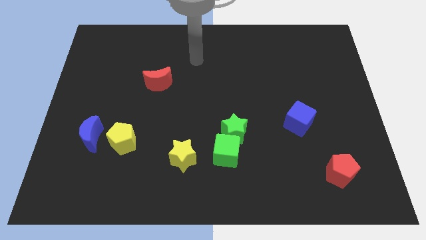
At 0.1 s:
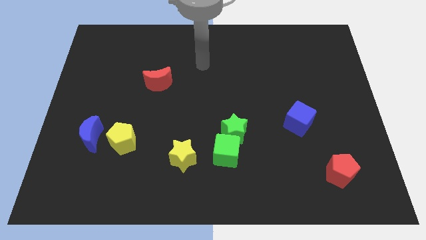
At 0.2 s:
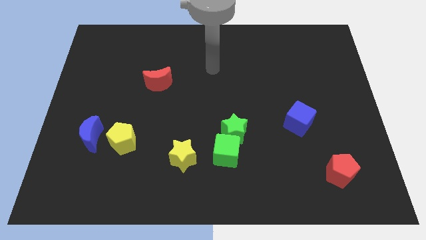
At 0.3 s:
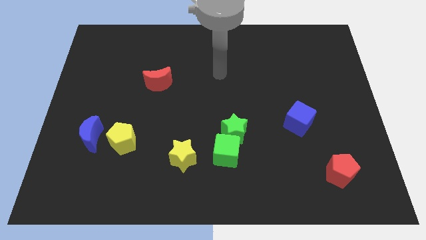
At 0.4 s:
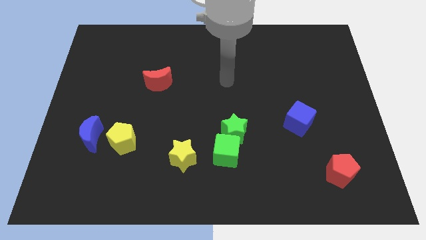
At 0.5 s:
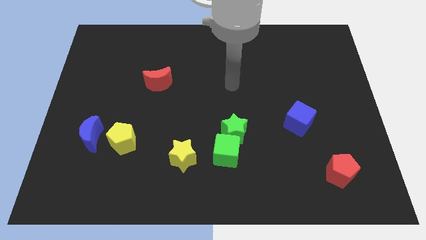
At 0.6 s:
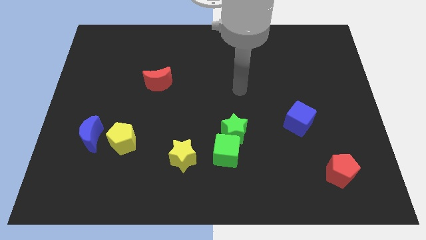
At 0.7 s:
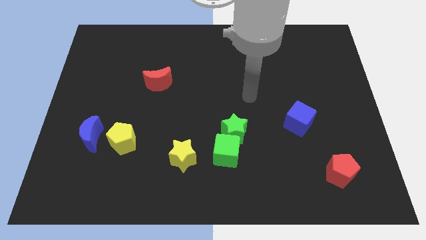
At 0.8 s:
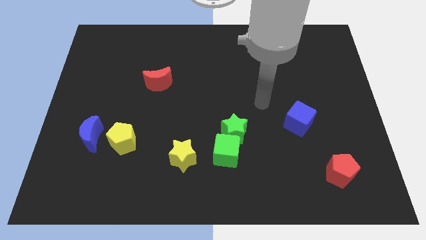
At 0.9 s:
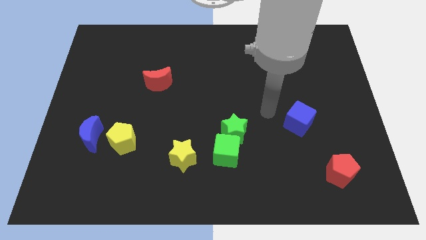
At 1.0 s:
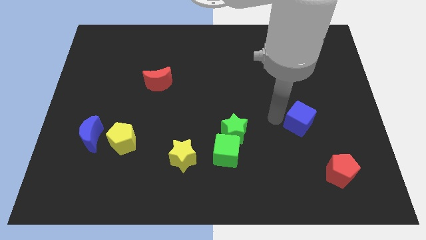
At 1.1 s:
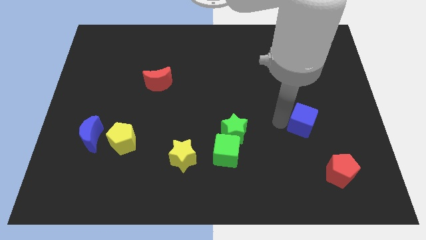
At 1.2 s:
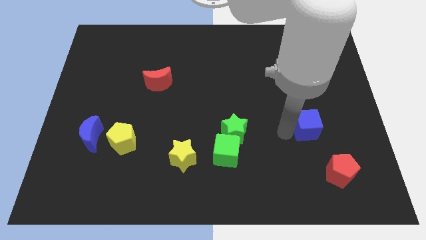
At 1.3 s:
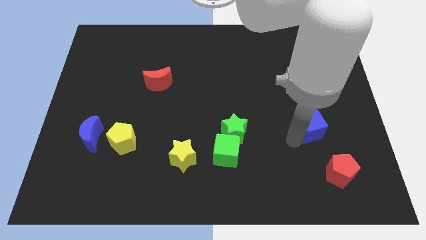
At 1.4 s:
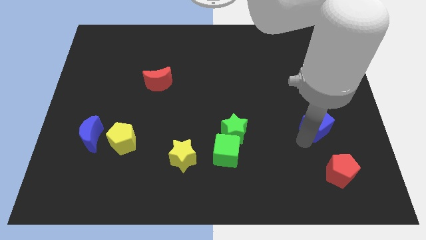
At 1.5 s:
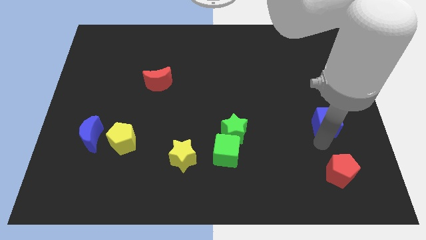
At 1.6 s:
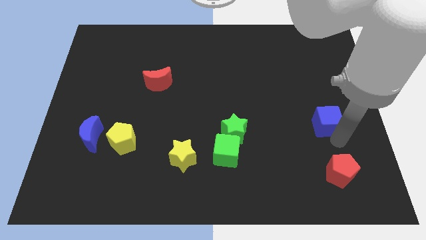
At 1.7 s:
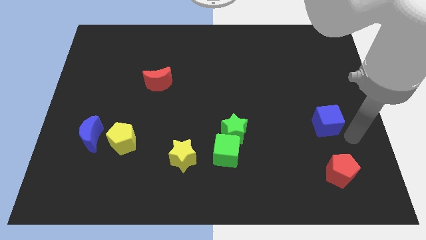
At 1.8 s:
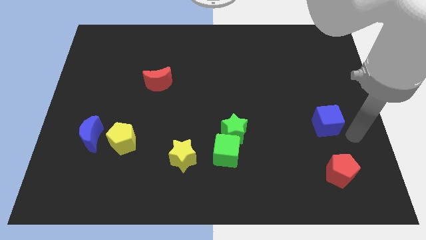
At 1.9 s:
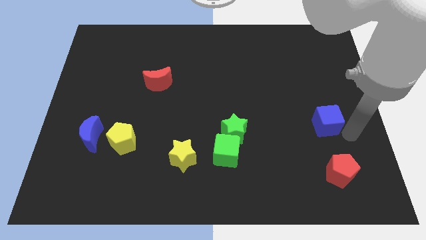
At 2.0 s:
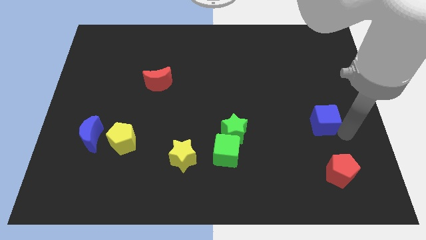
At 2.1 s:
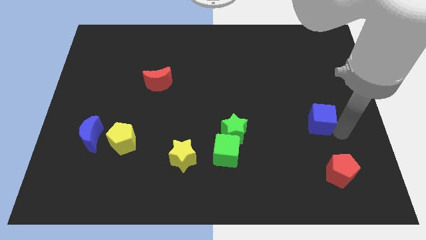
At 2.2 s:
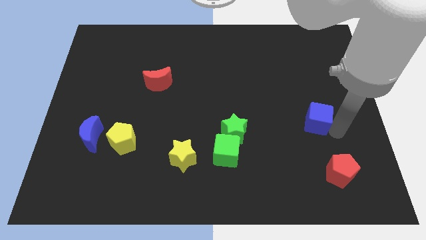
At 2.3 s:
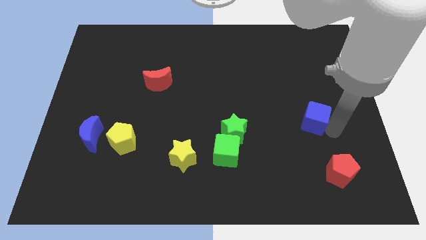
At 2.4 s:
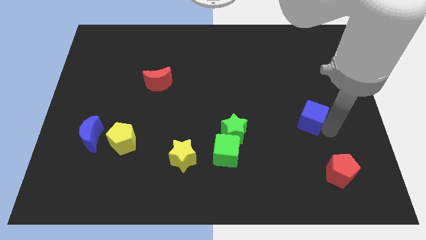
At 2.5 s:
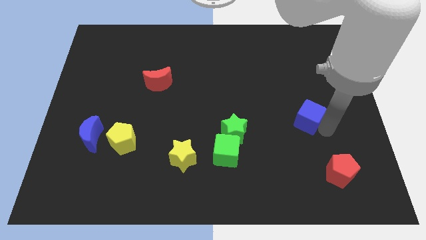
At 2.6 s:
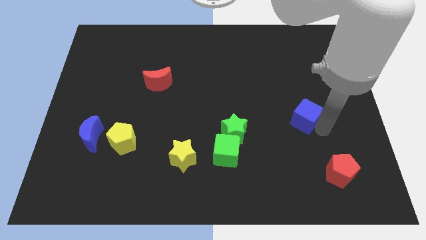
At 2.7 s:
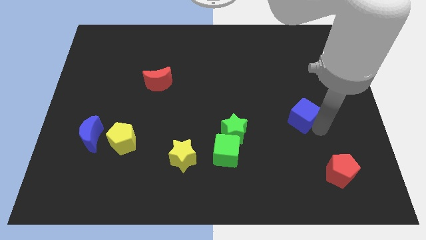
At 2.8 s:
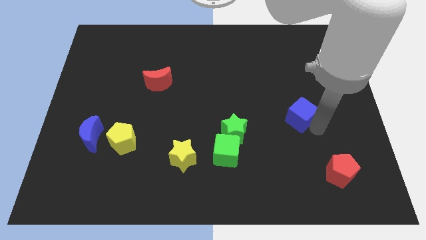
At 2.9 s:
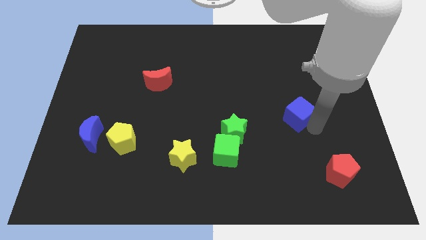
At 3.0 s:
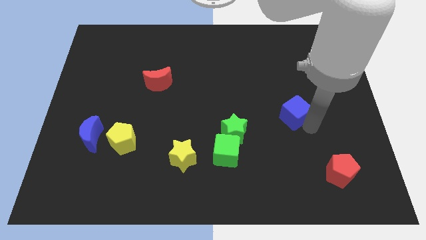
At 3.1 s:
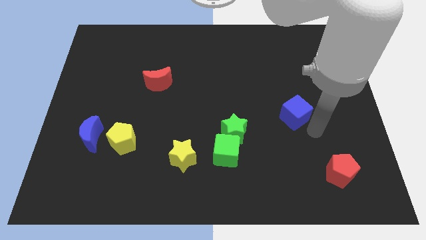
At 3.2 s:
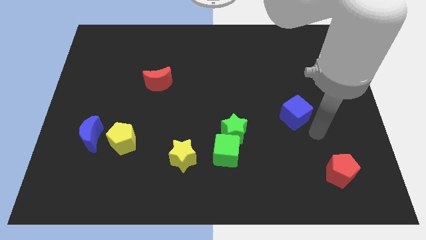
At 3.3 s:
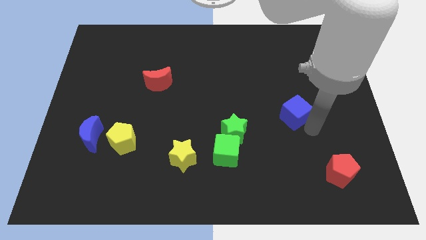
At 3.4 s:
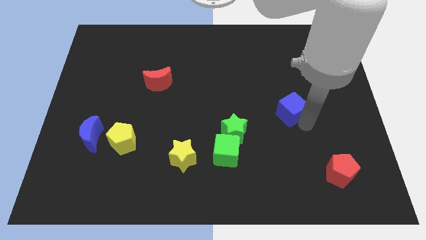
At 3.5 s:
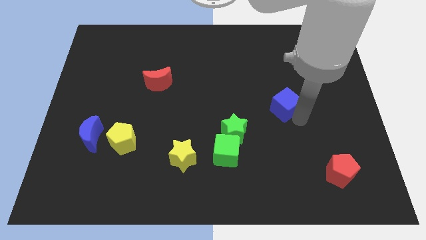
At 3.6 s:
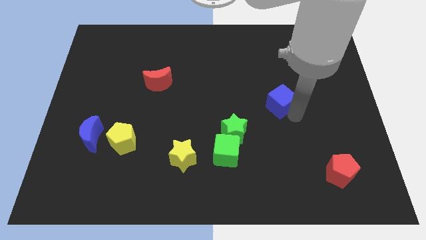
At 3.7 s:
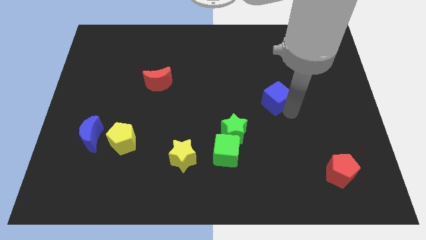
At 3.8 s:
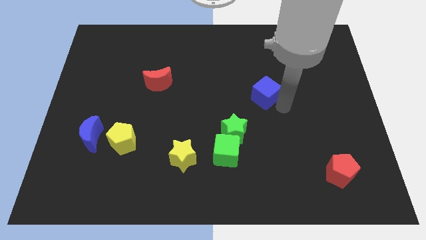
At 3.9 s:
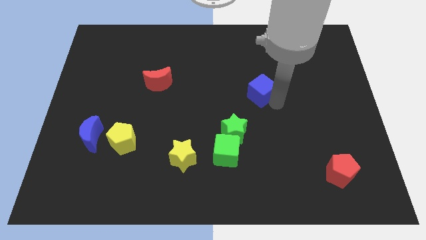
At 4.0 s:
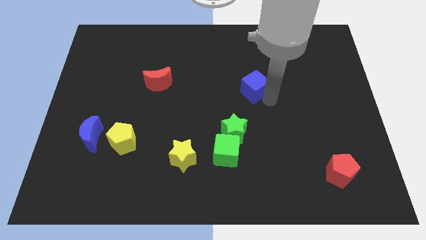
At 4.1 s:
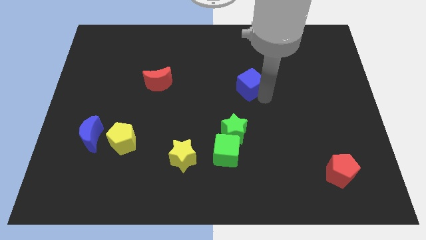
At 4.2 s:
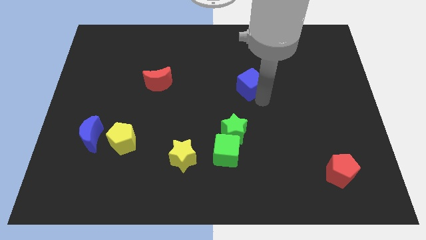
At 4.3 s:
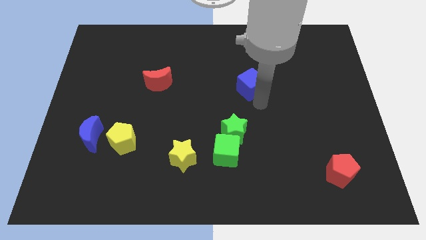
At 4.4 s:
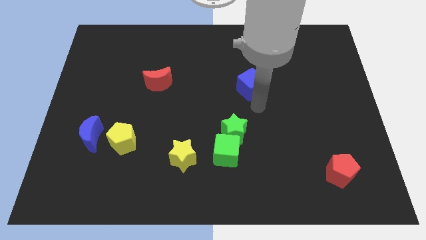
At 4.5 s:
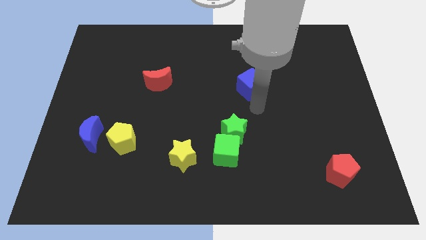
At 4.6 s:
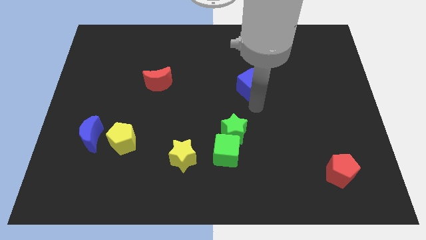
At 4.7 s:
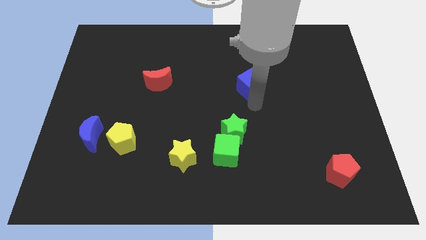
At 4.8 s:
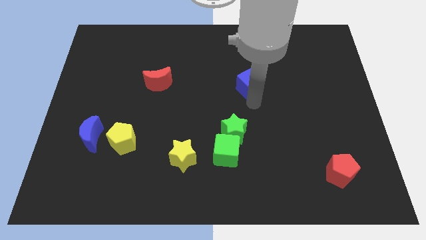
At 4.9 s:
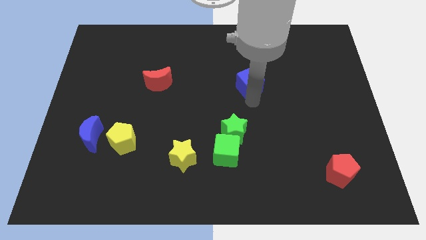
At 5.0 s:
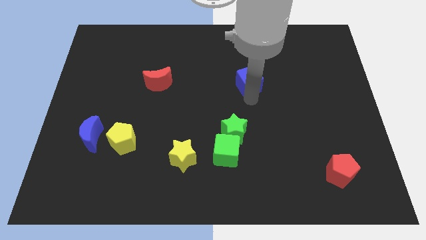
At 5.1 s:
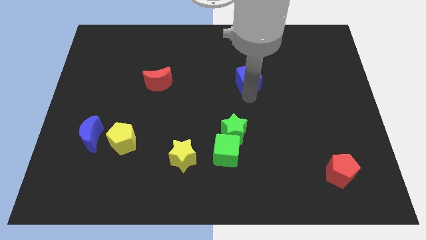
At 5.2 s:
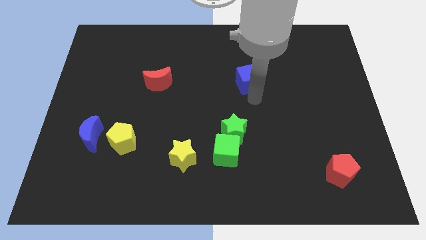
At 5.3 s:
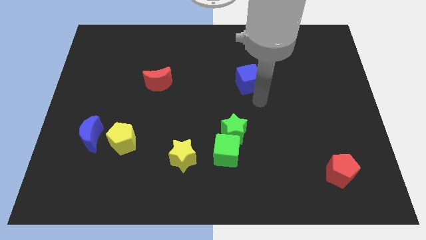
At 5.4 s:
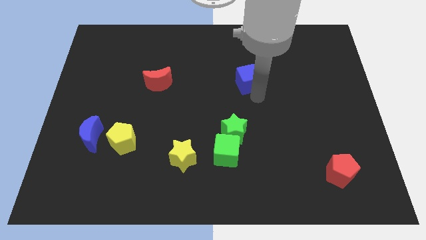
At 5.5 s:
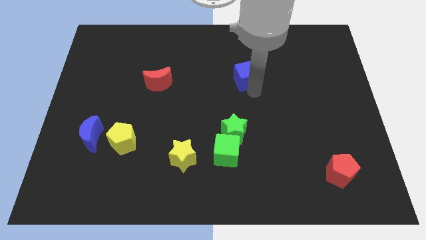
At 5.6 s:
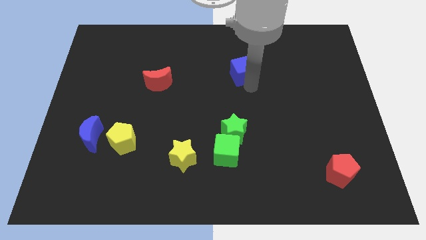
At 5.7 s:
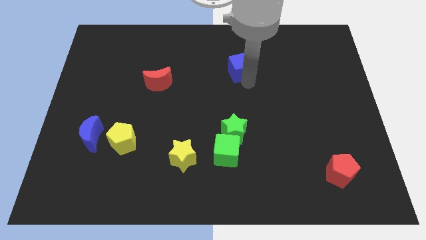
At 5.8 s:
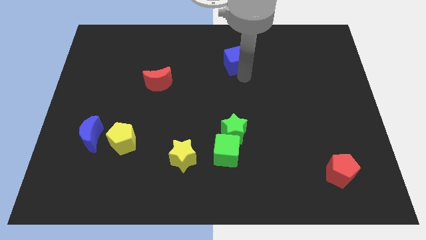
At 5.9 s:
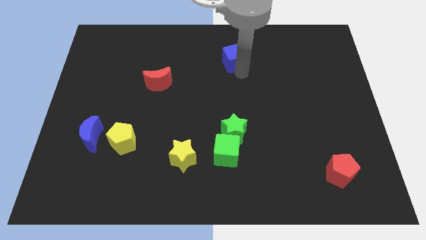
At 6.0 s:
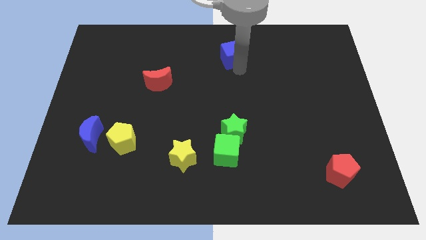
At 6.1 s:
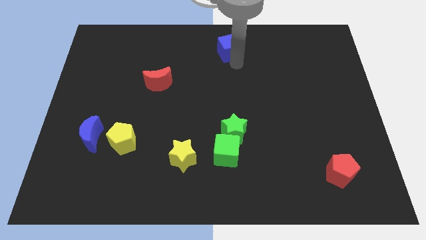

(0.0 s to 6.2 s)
slide the blue cube to the top side

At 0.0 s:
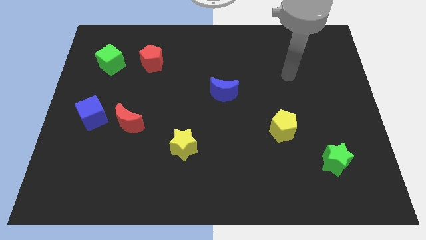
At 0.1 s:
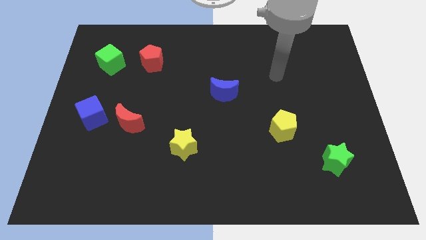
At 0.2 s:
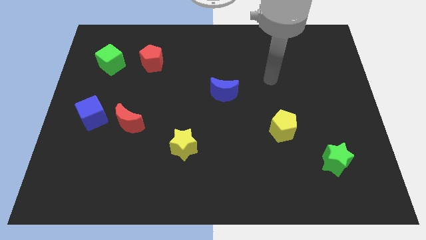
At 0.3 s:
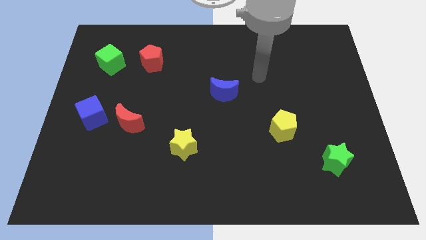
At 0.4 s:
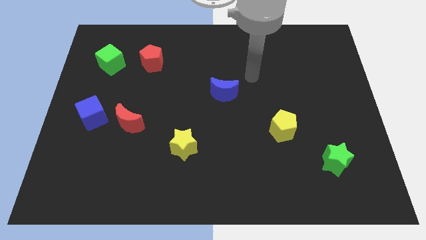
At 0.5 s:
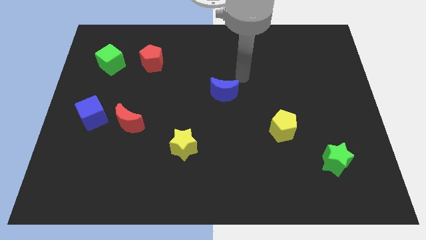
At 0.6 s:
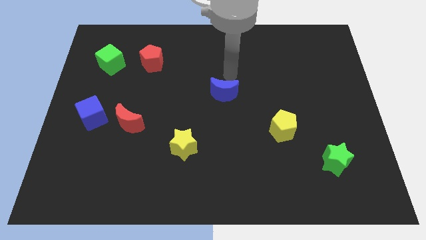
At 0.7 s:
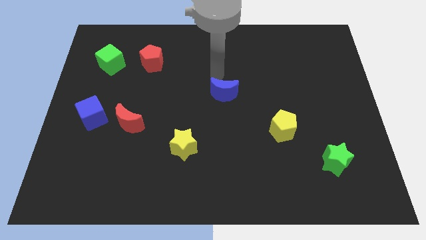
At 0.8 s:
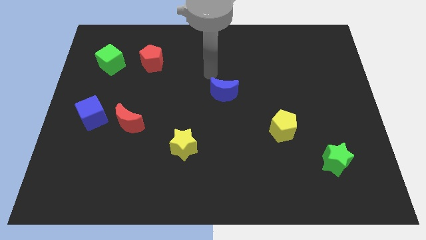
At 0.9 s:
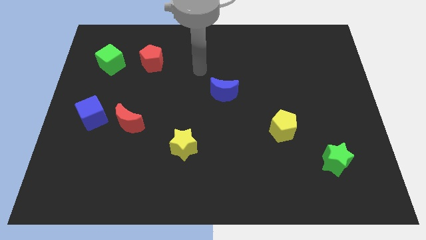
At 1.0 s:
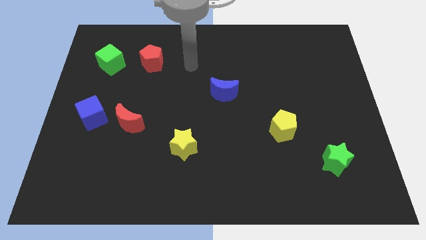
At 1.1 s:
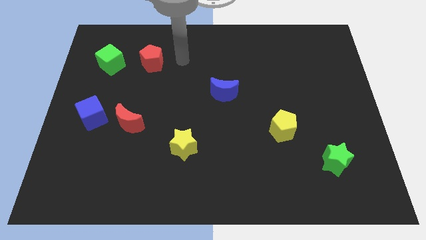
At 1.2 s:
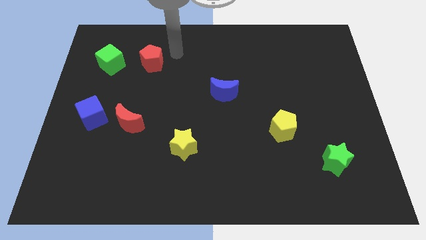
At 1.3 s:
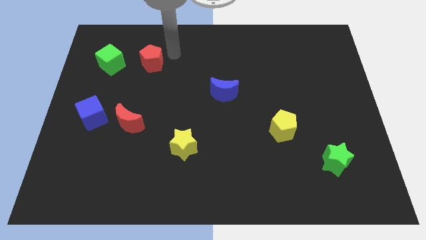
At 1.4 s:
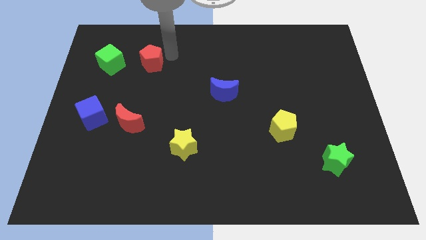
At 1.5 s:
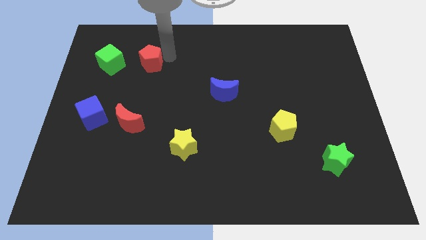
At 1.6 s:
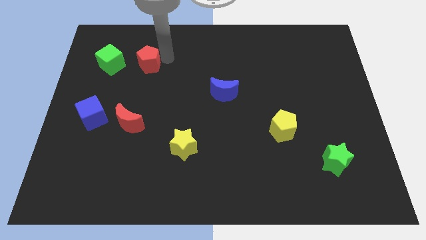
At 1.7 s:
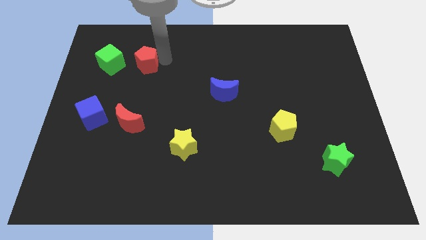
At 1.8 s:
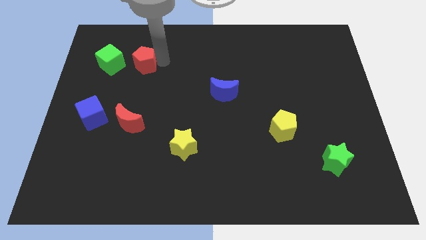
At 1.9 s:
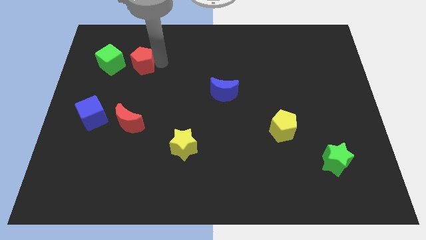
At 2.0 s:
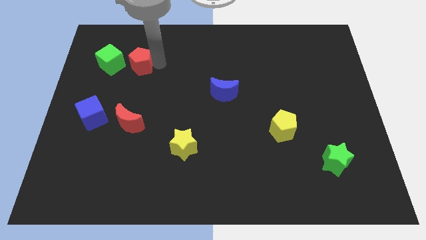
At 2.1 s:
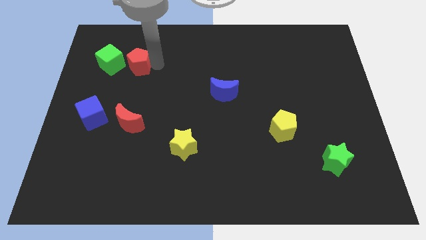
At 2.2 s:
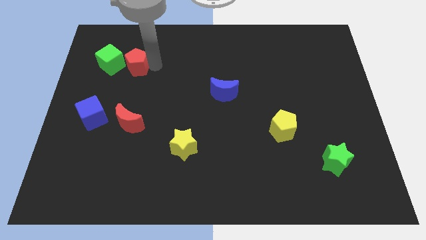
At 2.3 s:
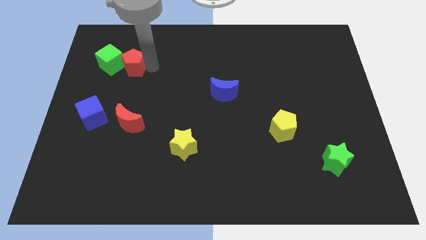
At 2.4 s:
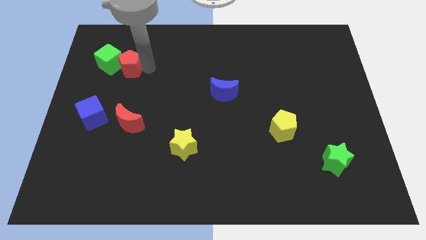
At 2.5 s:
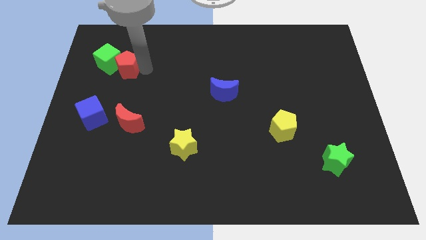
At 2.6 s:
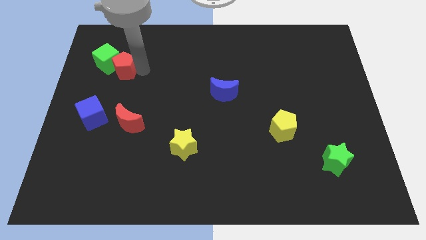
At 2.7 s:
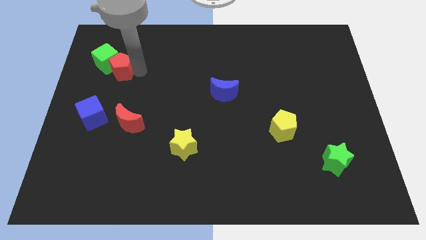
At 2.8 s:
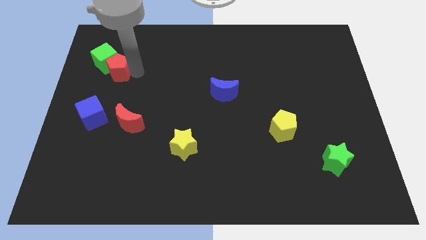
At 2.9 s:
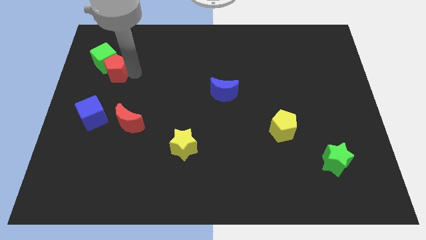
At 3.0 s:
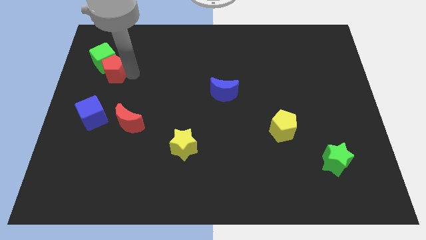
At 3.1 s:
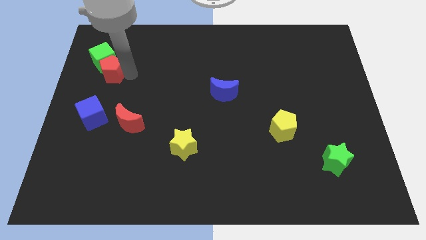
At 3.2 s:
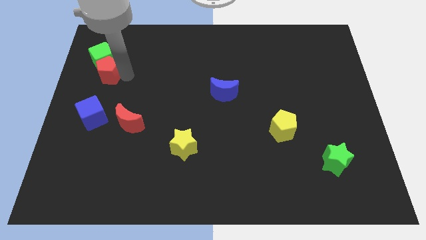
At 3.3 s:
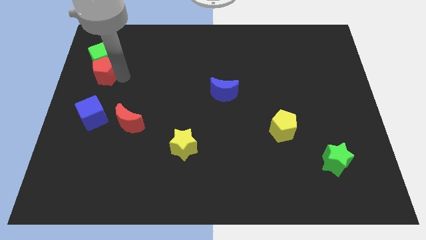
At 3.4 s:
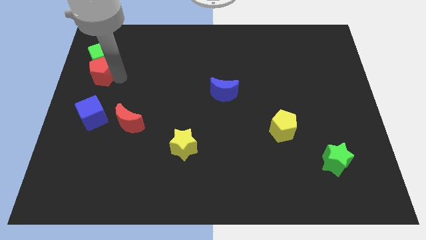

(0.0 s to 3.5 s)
slide the red pentagon to the left side
